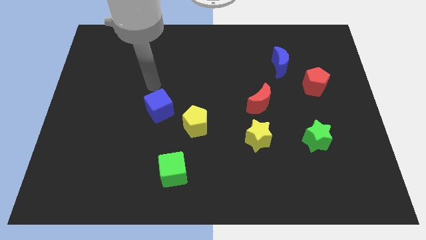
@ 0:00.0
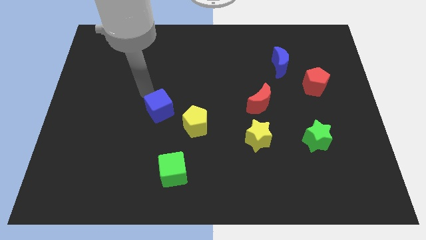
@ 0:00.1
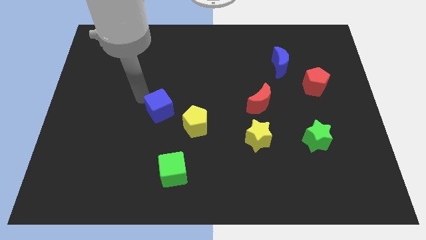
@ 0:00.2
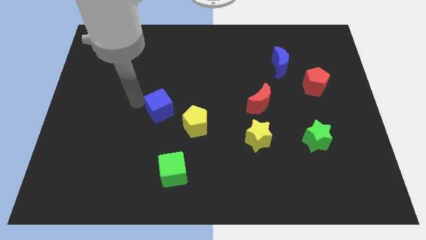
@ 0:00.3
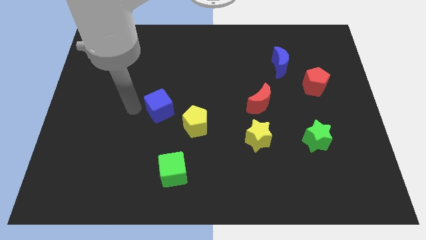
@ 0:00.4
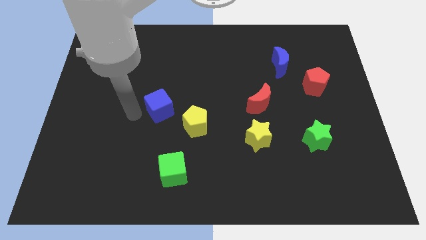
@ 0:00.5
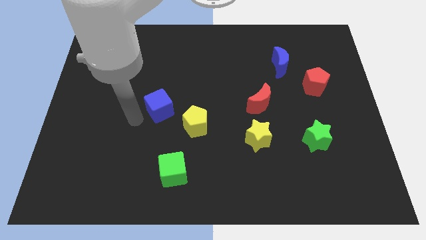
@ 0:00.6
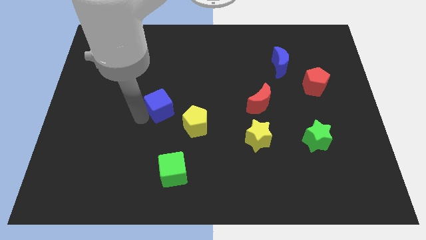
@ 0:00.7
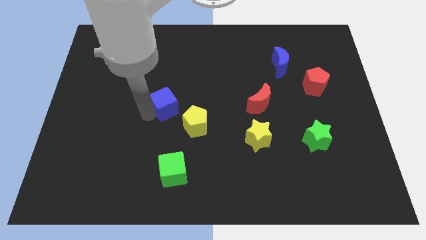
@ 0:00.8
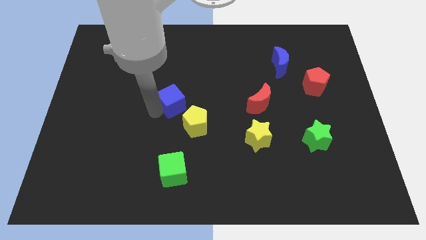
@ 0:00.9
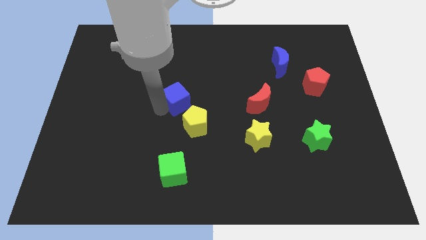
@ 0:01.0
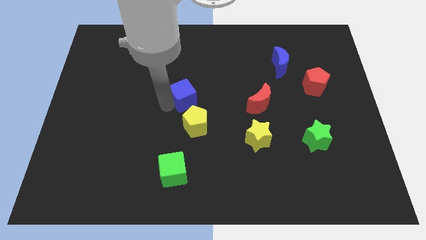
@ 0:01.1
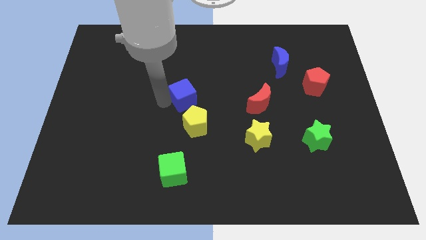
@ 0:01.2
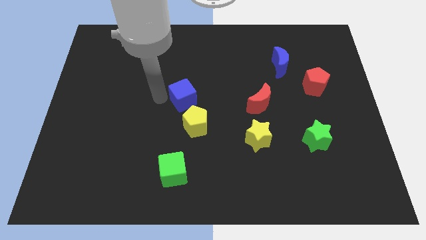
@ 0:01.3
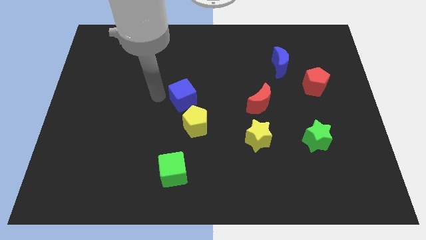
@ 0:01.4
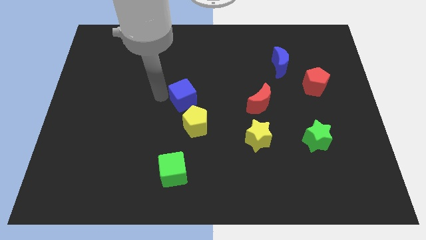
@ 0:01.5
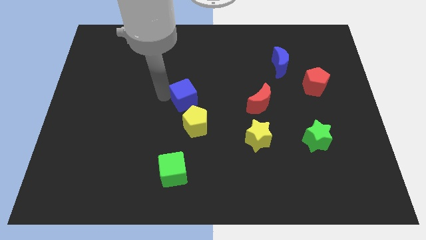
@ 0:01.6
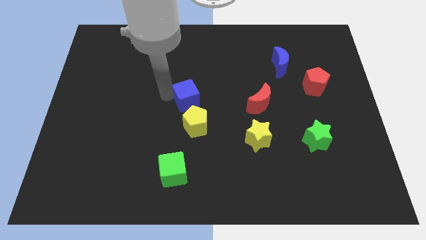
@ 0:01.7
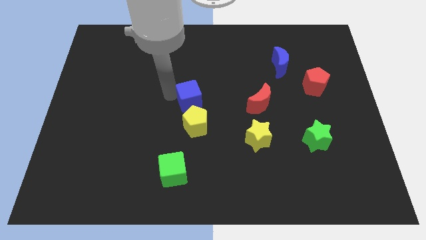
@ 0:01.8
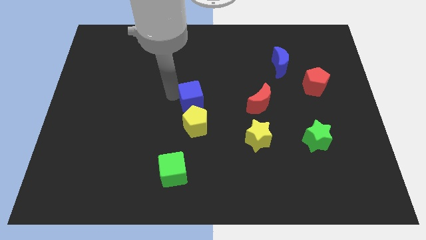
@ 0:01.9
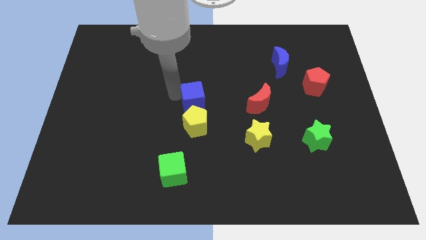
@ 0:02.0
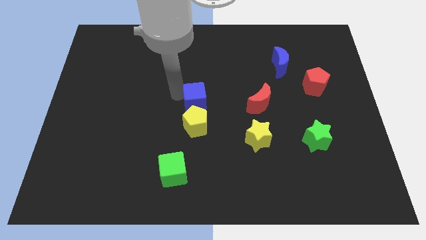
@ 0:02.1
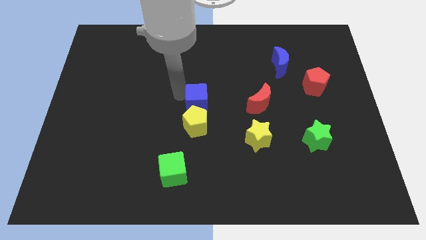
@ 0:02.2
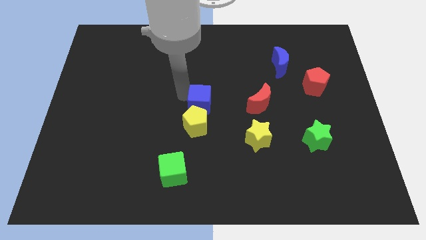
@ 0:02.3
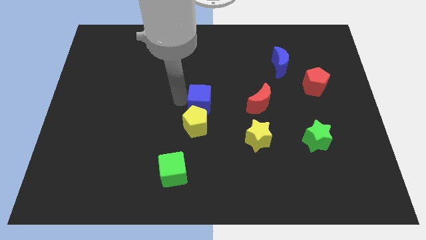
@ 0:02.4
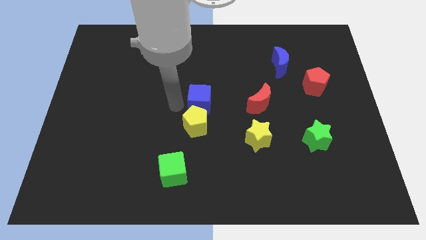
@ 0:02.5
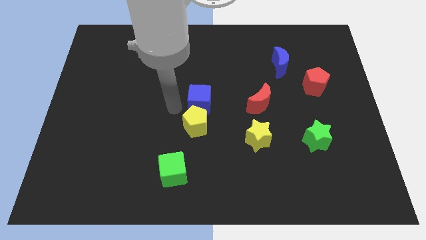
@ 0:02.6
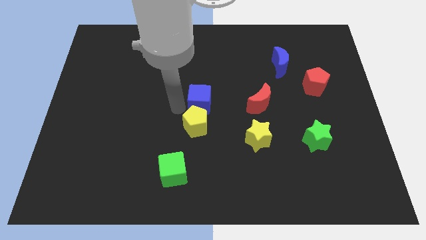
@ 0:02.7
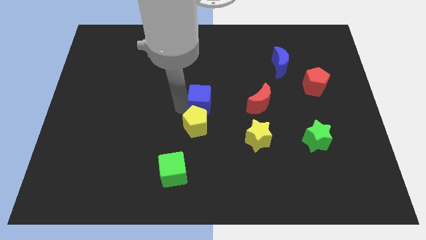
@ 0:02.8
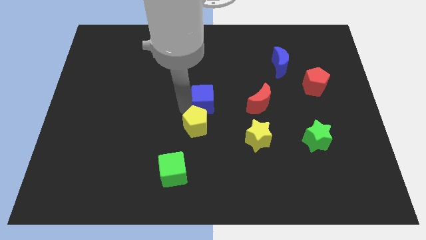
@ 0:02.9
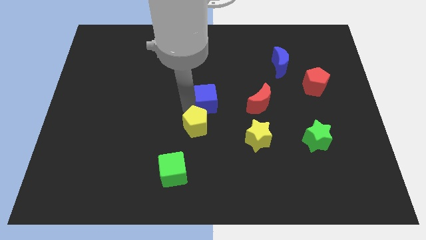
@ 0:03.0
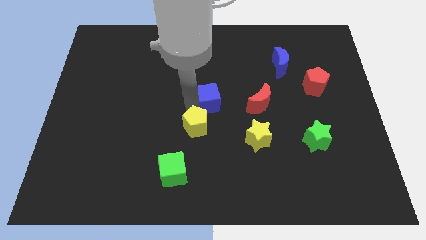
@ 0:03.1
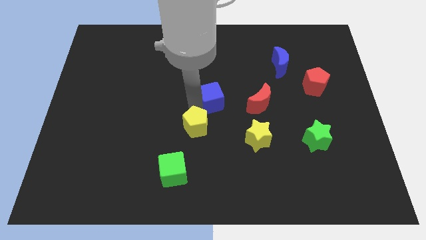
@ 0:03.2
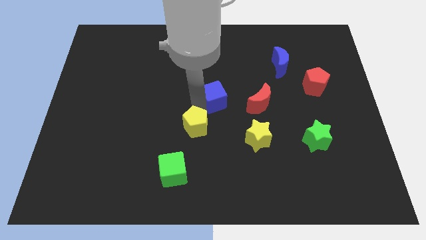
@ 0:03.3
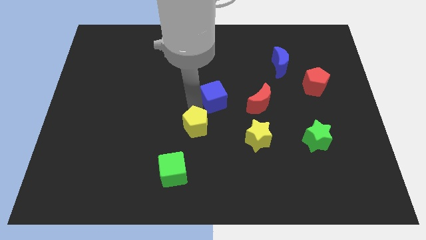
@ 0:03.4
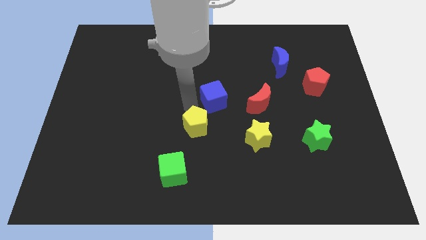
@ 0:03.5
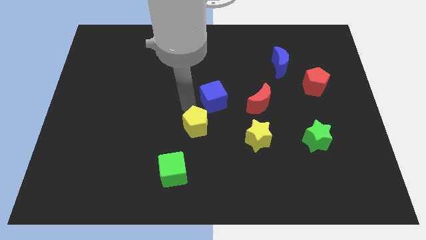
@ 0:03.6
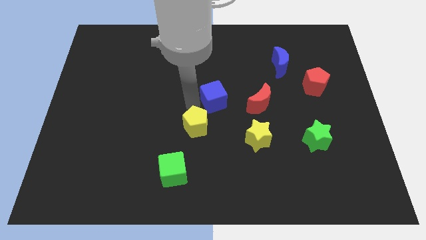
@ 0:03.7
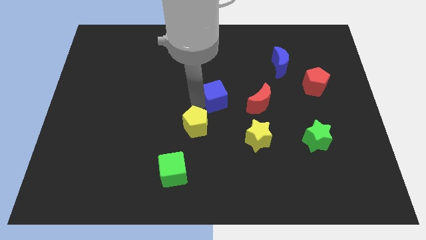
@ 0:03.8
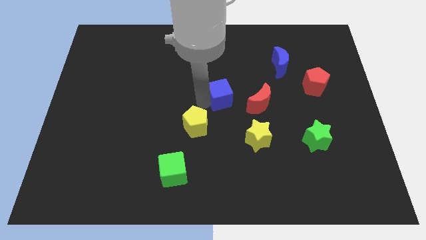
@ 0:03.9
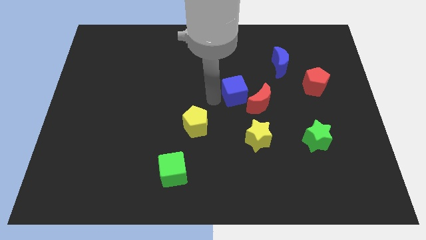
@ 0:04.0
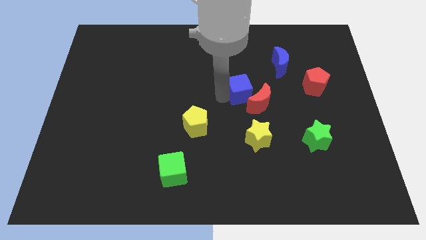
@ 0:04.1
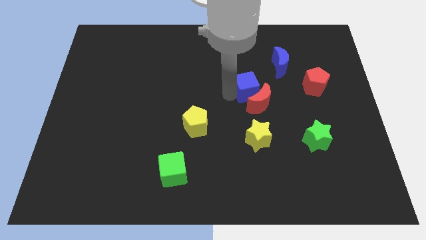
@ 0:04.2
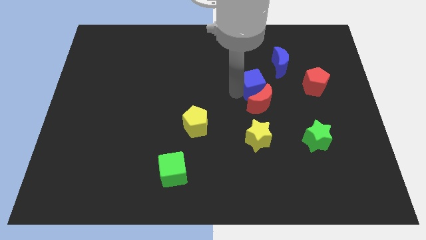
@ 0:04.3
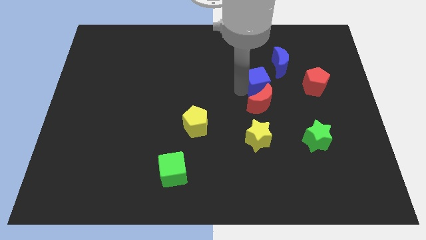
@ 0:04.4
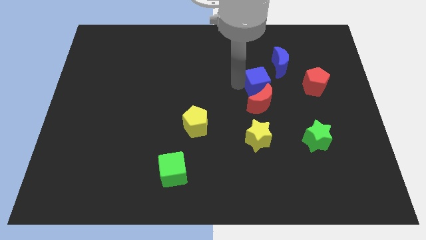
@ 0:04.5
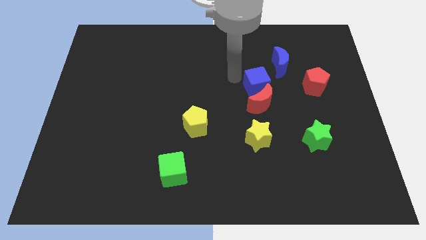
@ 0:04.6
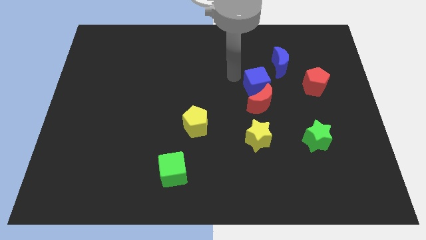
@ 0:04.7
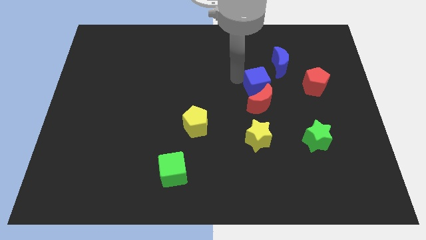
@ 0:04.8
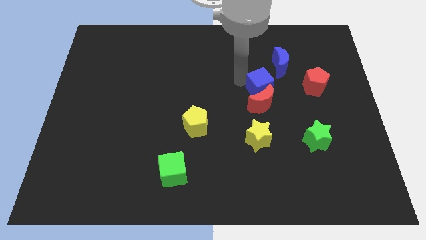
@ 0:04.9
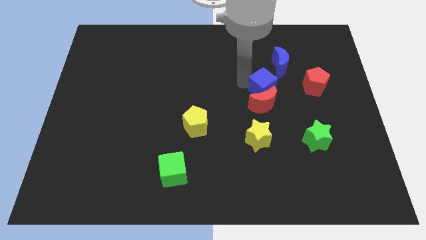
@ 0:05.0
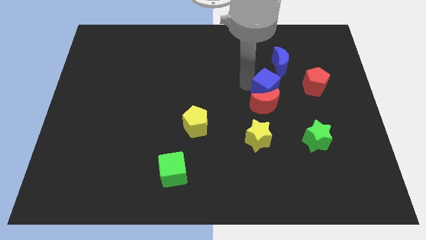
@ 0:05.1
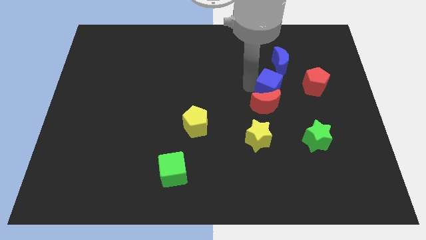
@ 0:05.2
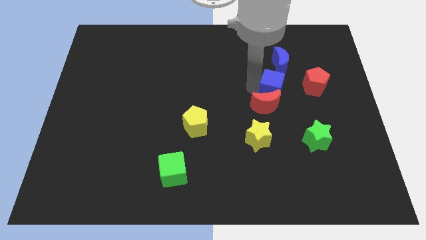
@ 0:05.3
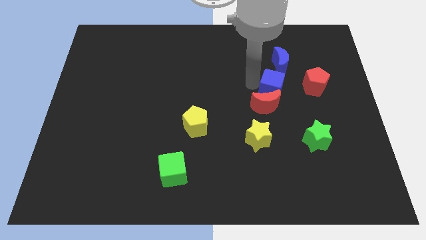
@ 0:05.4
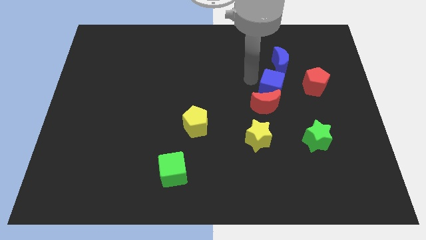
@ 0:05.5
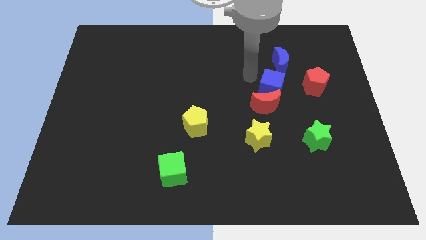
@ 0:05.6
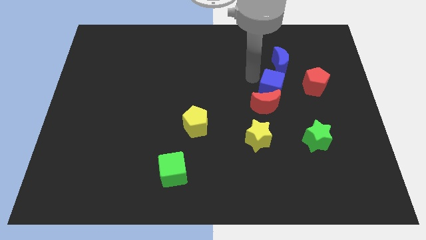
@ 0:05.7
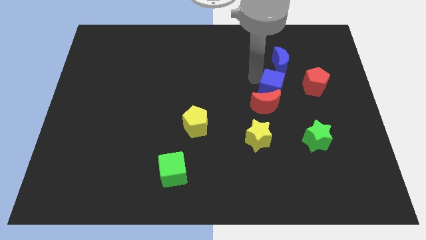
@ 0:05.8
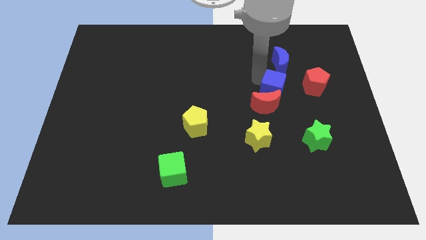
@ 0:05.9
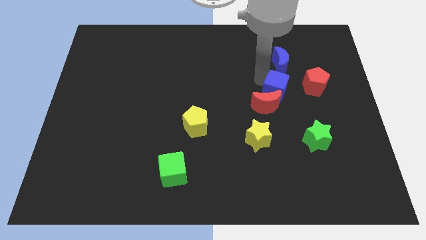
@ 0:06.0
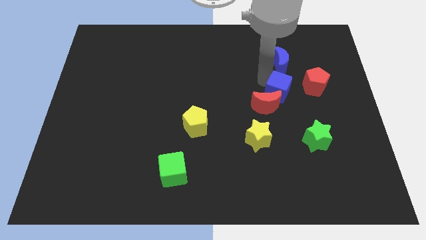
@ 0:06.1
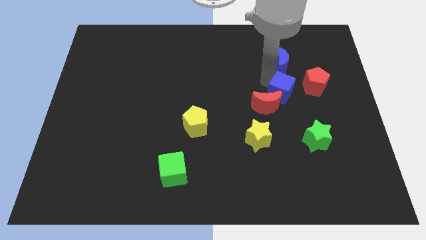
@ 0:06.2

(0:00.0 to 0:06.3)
slide the blue cube diagonally down and to the left of the red pentagon
